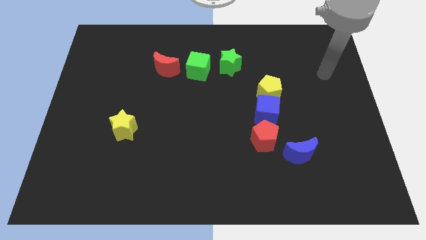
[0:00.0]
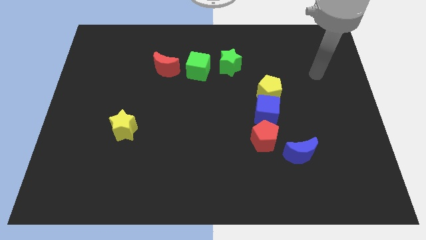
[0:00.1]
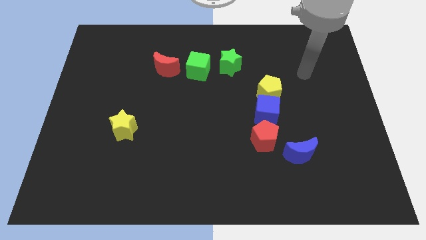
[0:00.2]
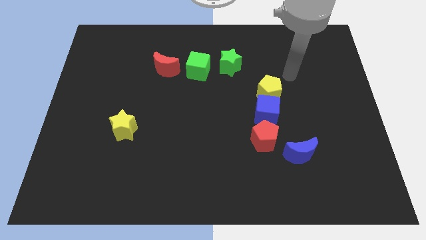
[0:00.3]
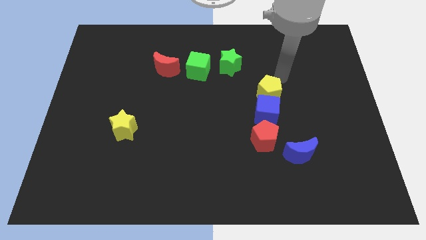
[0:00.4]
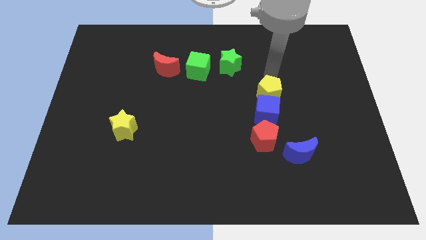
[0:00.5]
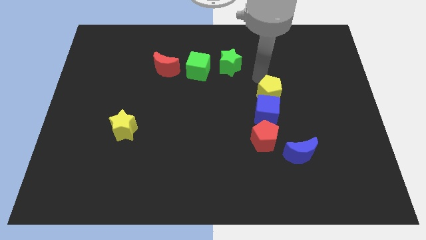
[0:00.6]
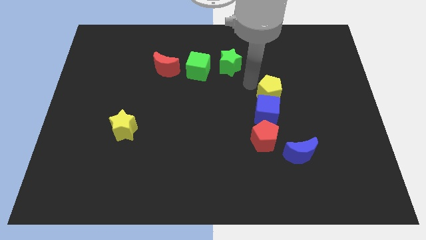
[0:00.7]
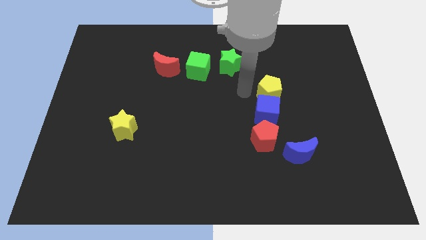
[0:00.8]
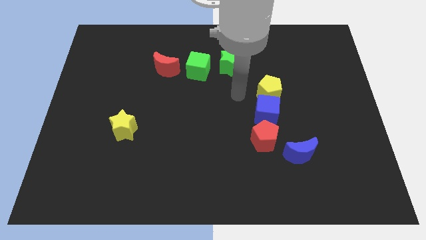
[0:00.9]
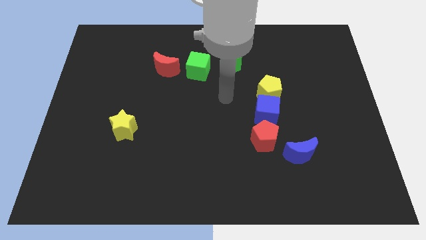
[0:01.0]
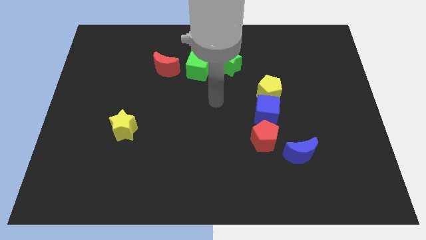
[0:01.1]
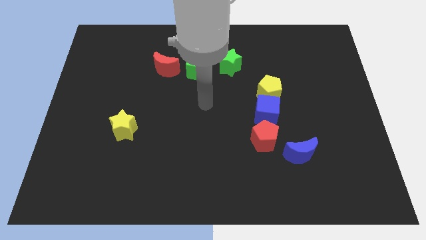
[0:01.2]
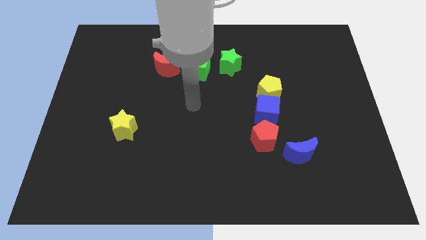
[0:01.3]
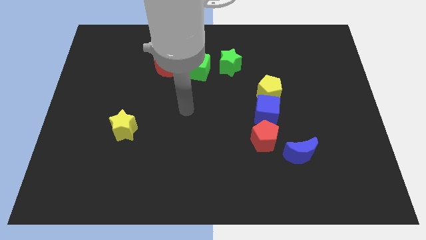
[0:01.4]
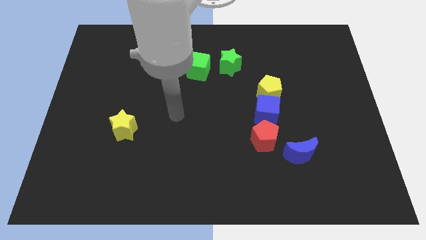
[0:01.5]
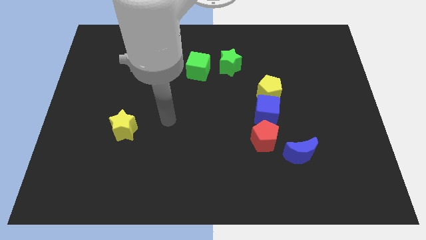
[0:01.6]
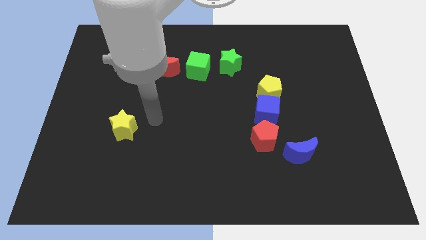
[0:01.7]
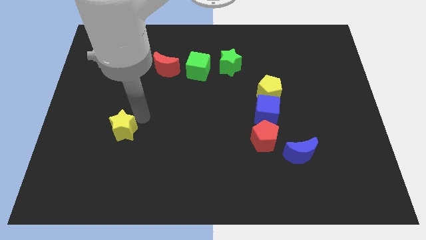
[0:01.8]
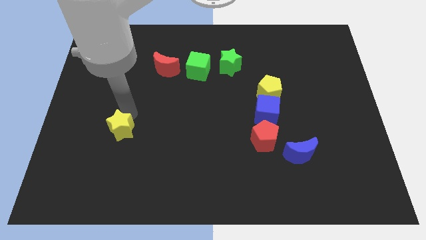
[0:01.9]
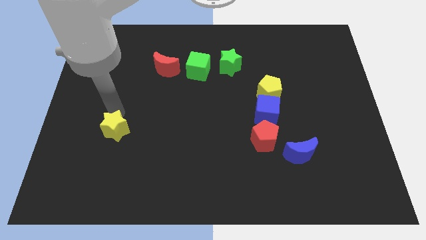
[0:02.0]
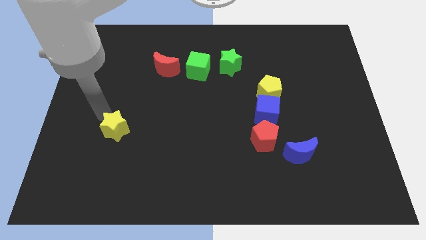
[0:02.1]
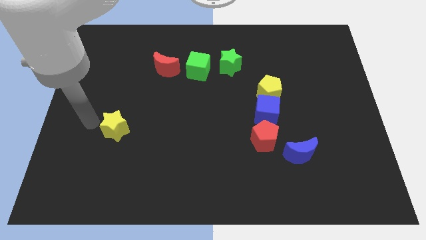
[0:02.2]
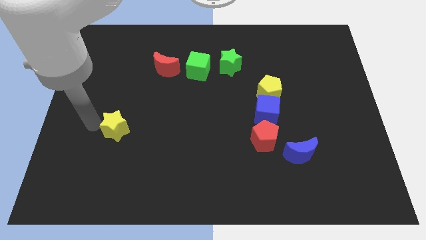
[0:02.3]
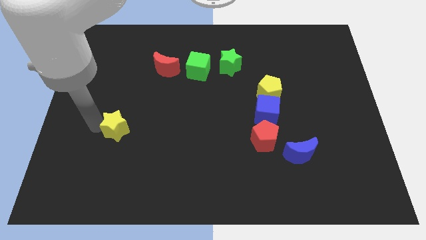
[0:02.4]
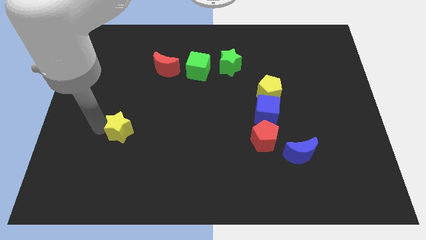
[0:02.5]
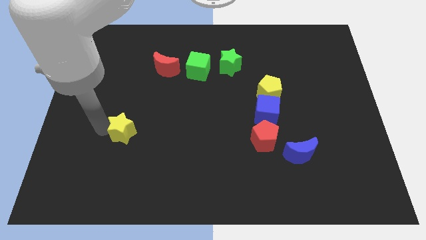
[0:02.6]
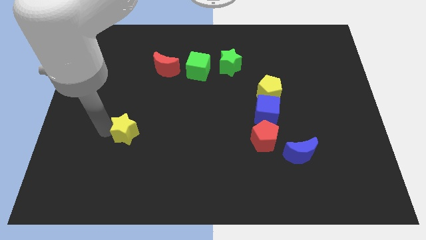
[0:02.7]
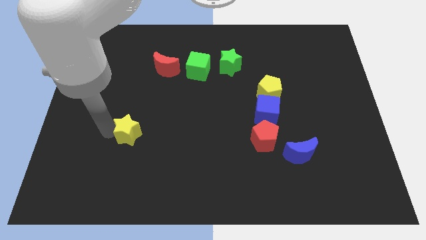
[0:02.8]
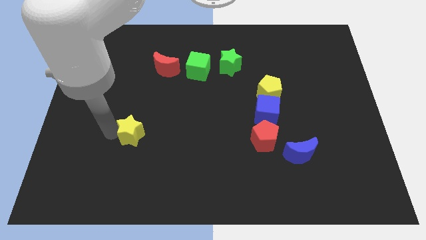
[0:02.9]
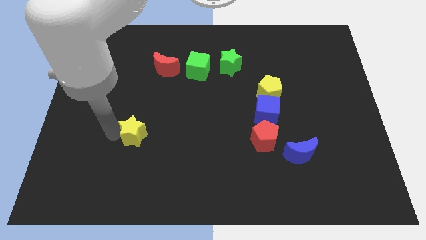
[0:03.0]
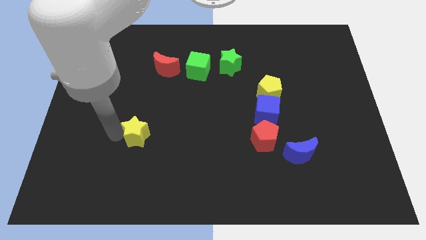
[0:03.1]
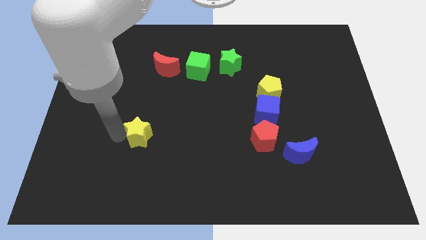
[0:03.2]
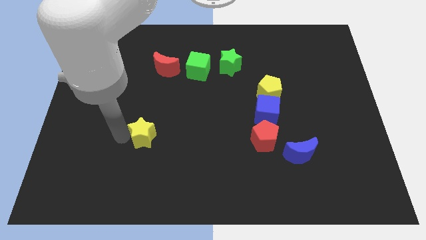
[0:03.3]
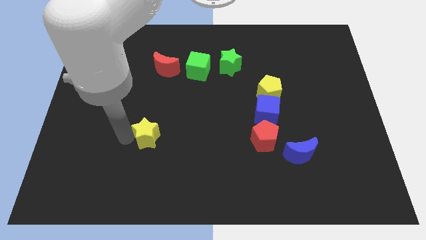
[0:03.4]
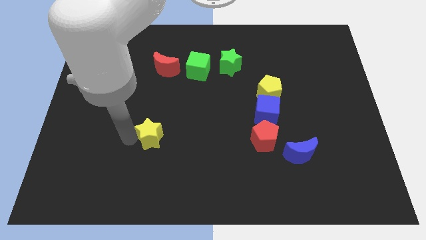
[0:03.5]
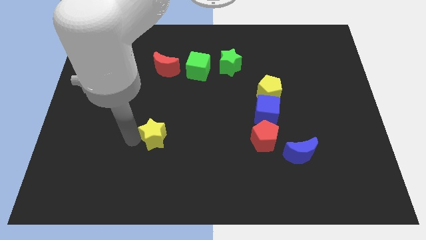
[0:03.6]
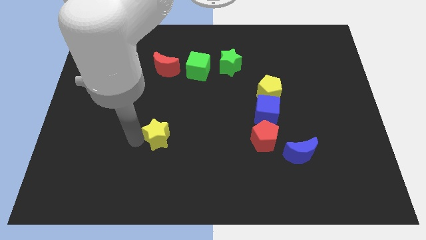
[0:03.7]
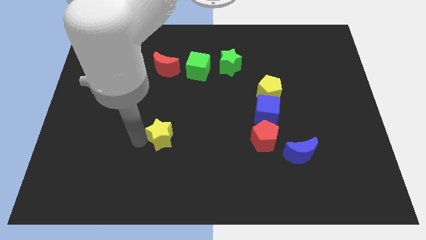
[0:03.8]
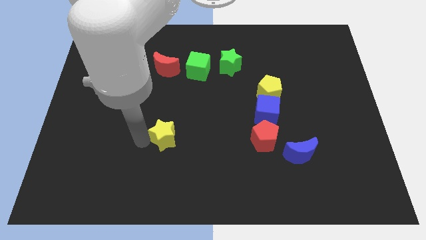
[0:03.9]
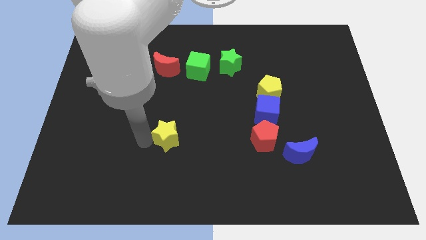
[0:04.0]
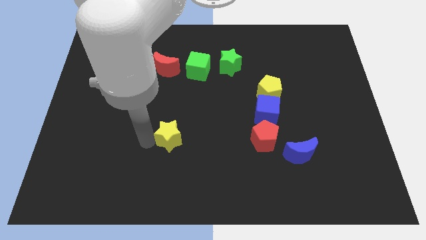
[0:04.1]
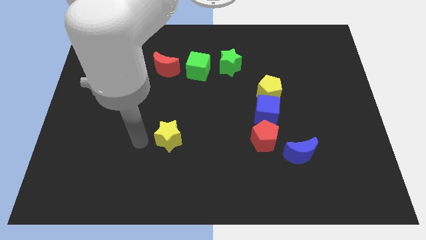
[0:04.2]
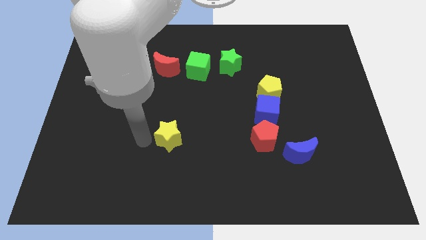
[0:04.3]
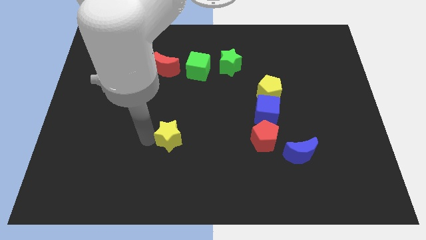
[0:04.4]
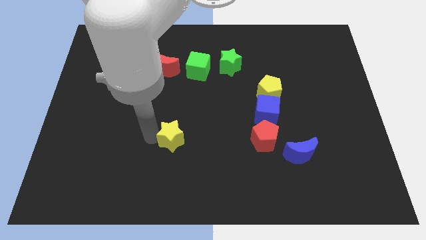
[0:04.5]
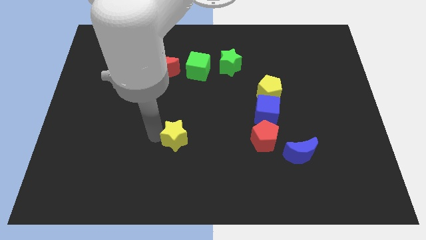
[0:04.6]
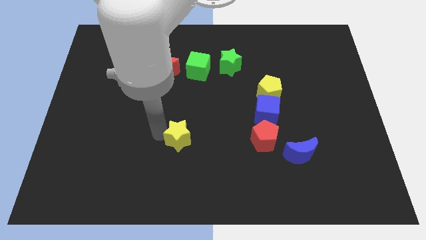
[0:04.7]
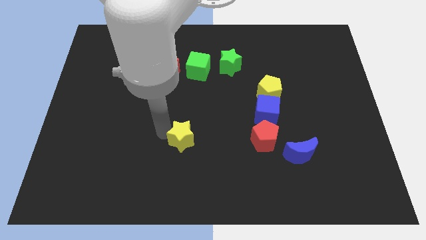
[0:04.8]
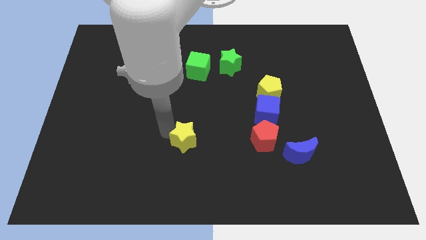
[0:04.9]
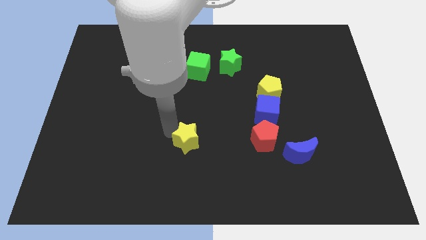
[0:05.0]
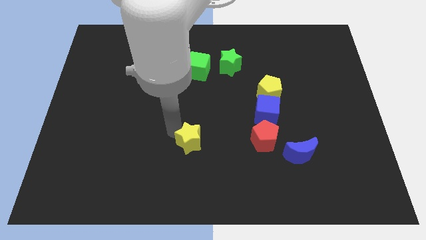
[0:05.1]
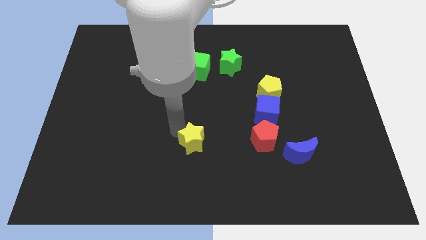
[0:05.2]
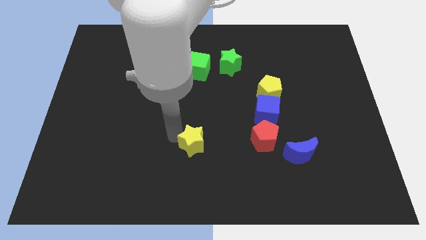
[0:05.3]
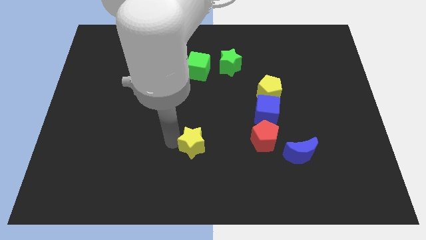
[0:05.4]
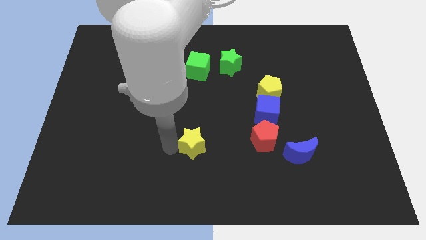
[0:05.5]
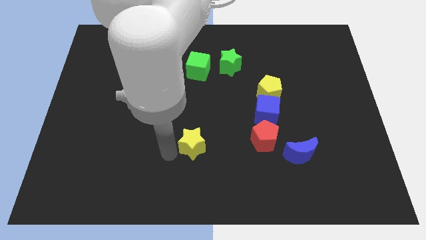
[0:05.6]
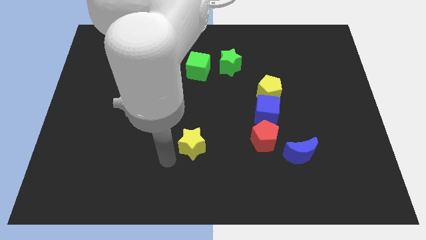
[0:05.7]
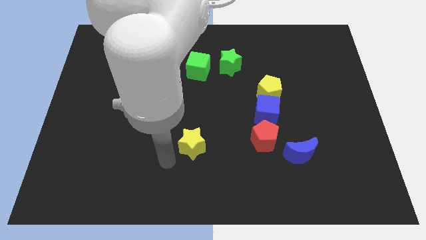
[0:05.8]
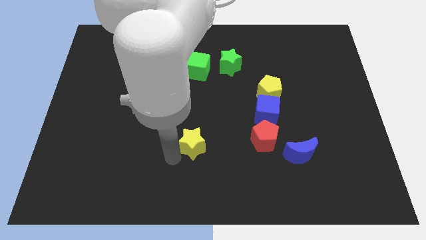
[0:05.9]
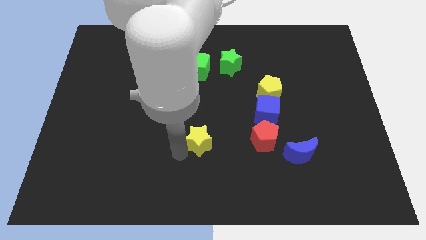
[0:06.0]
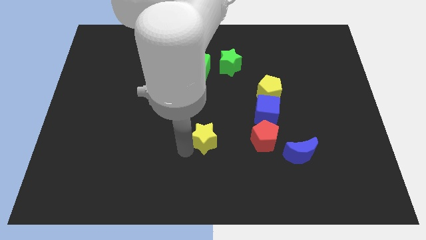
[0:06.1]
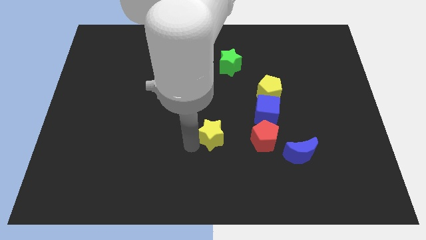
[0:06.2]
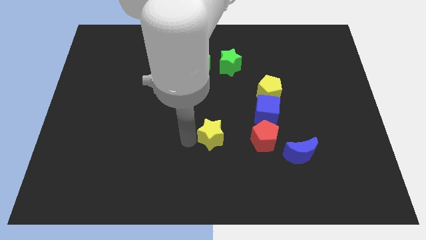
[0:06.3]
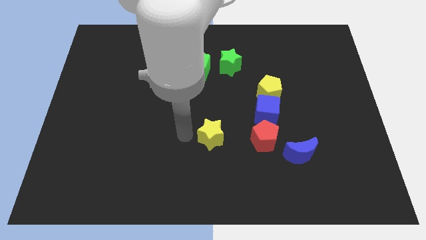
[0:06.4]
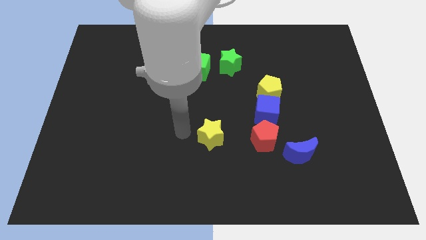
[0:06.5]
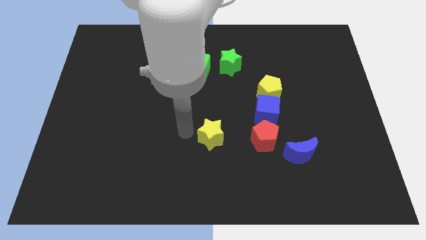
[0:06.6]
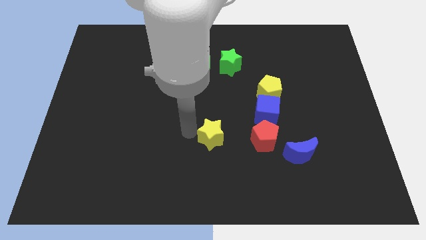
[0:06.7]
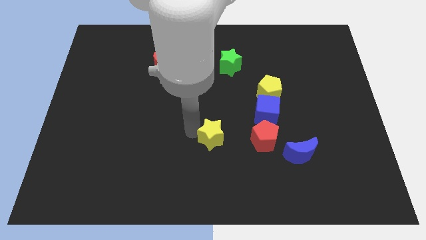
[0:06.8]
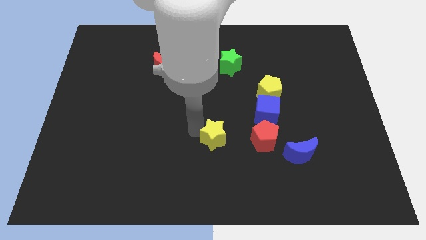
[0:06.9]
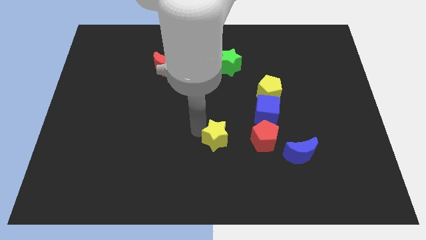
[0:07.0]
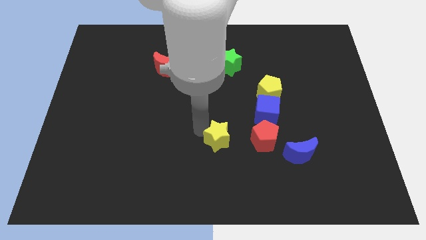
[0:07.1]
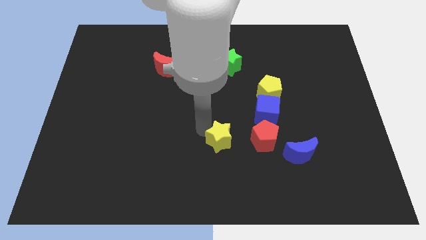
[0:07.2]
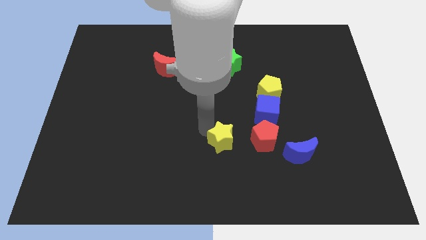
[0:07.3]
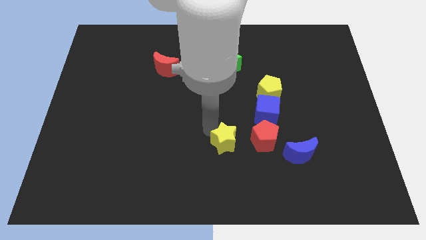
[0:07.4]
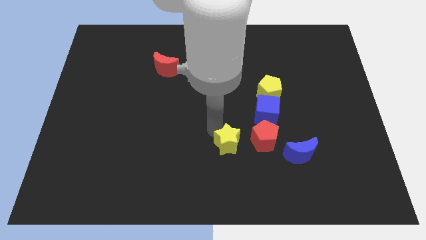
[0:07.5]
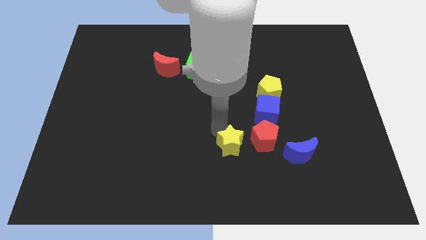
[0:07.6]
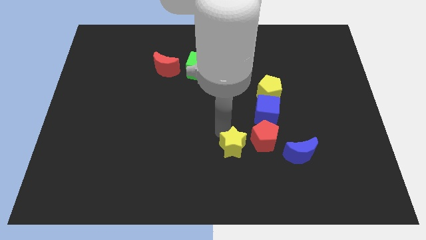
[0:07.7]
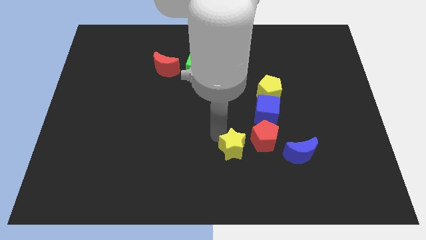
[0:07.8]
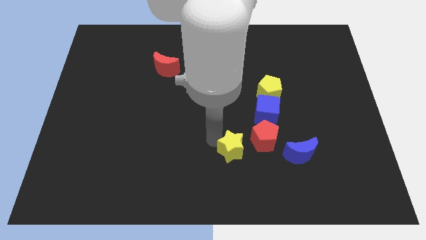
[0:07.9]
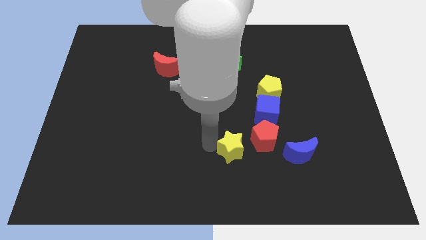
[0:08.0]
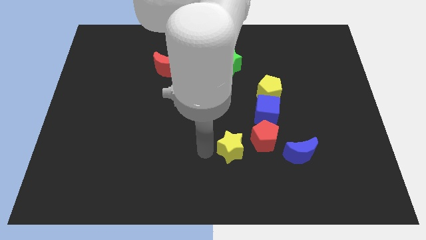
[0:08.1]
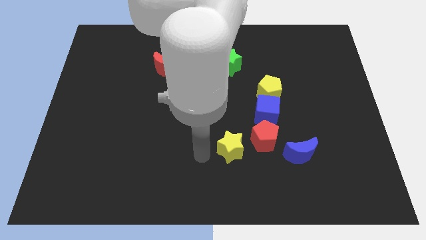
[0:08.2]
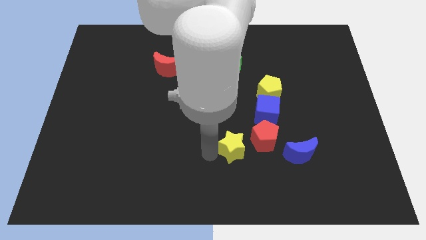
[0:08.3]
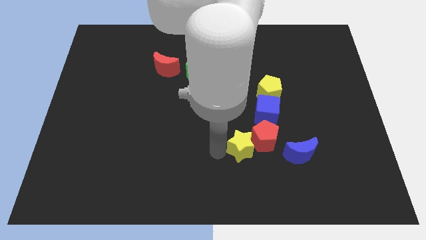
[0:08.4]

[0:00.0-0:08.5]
move the yellow star towards the red pentagon
